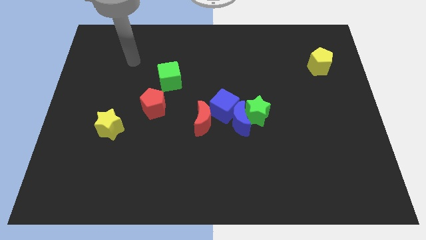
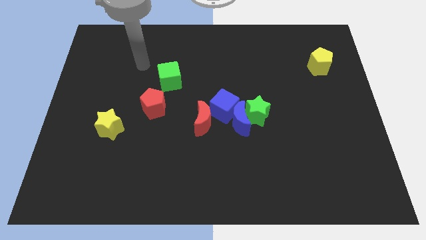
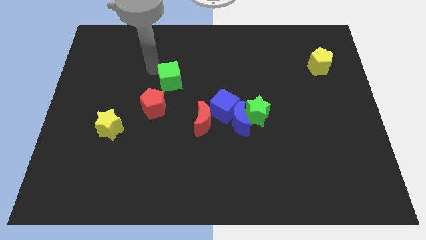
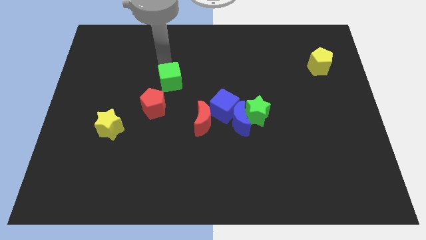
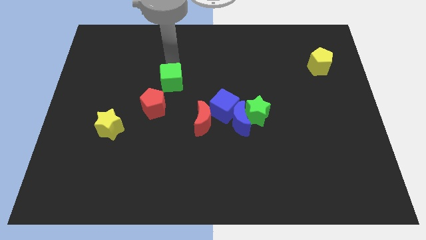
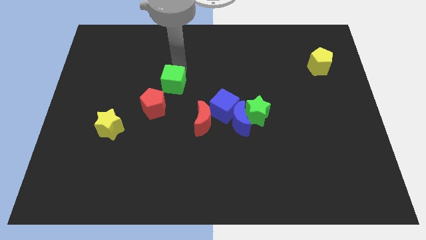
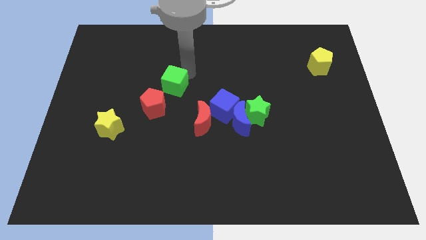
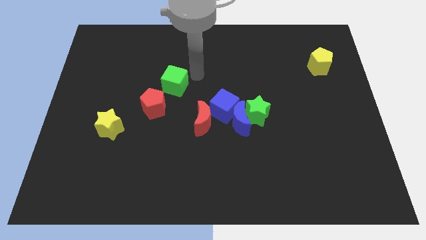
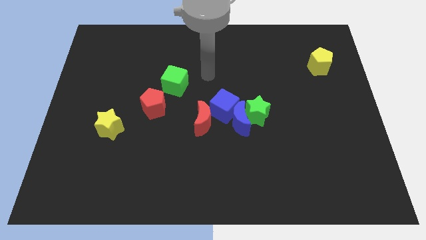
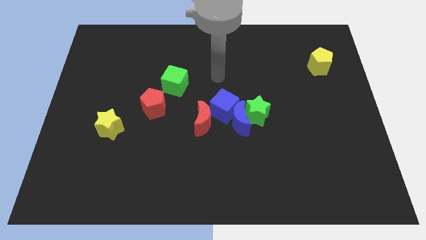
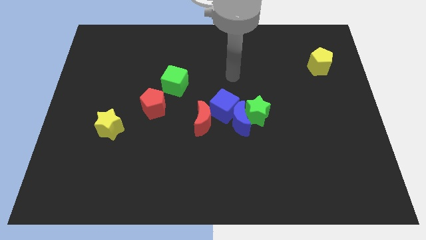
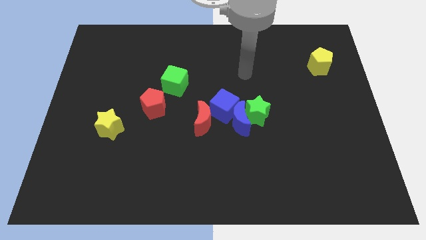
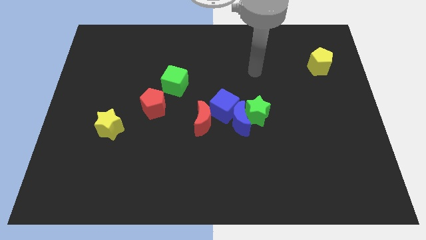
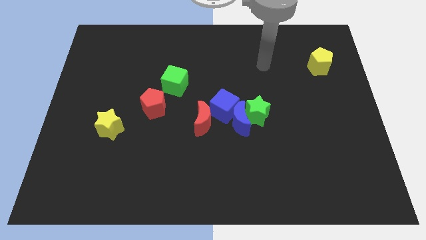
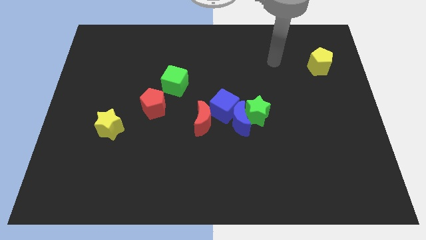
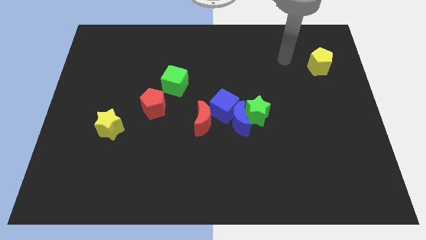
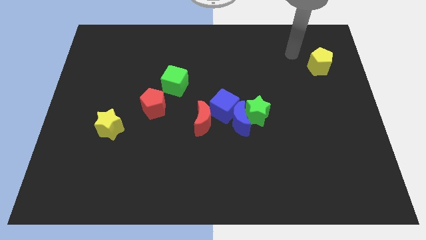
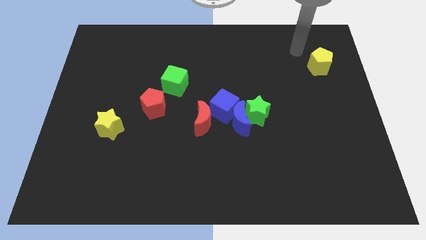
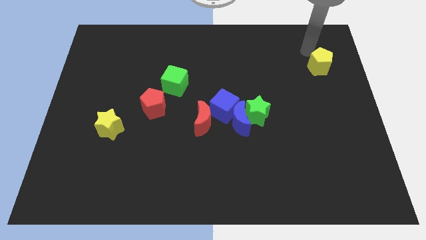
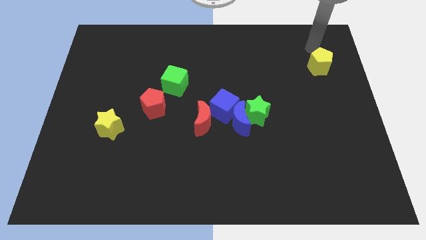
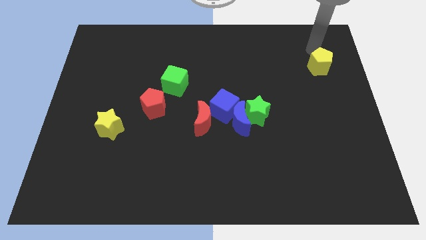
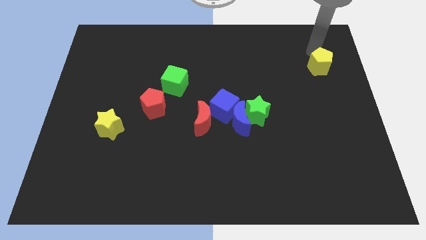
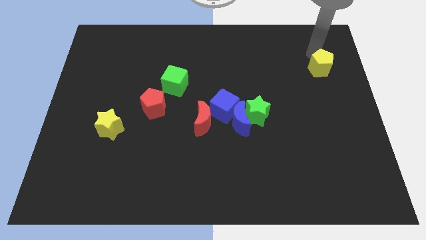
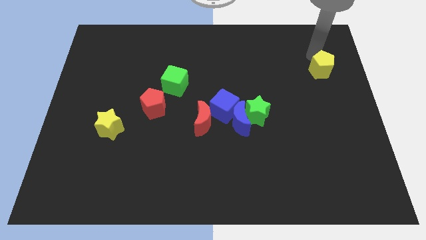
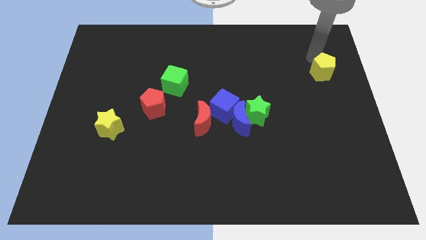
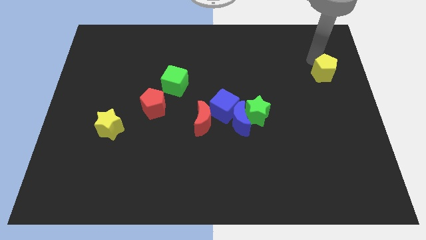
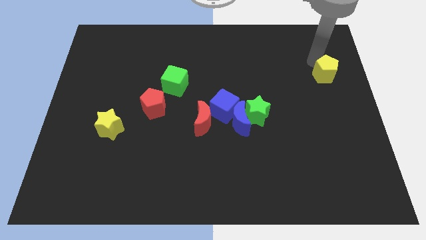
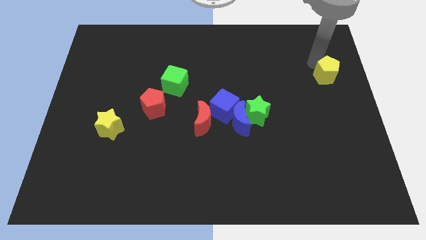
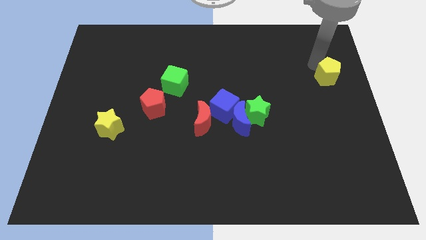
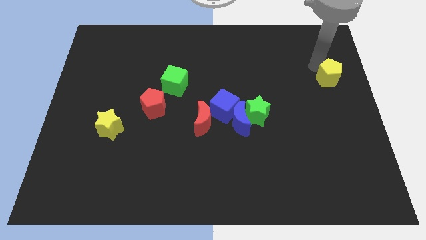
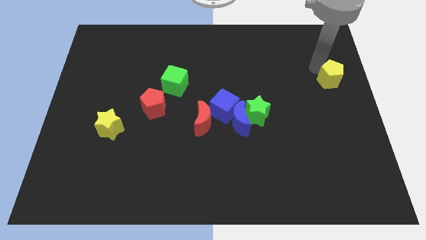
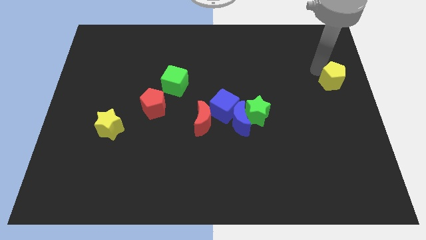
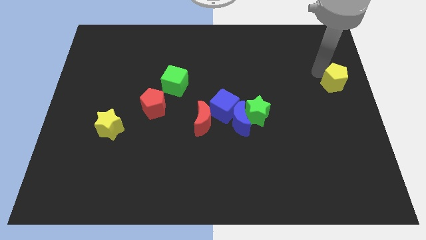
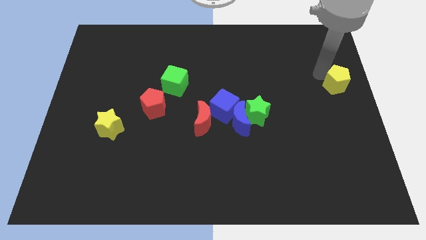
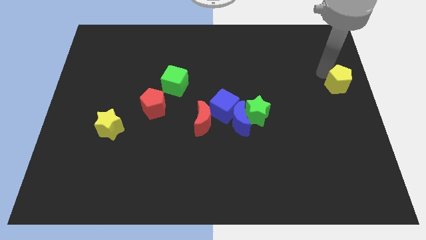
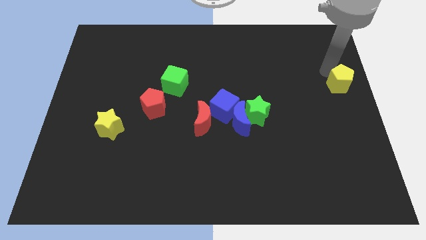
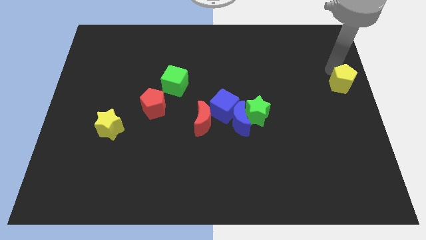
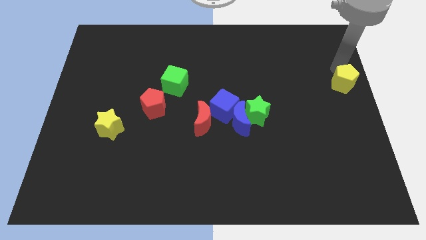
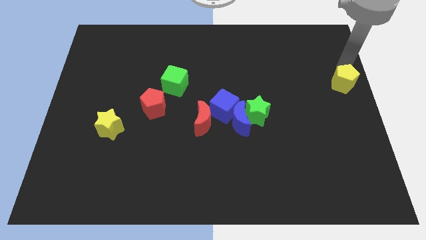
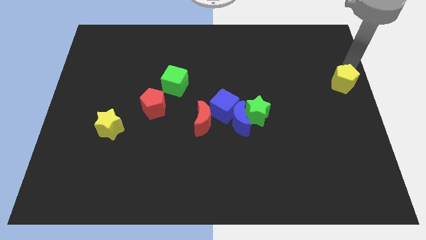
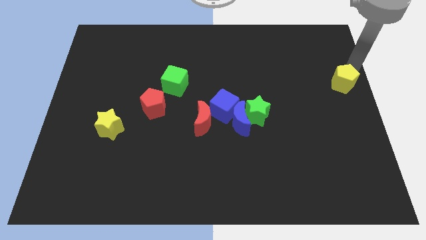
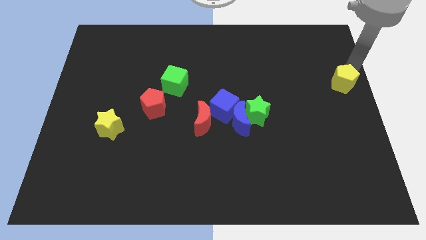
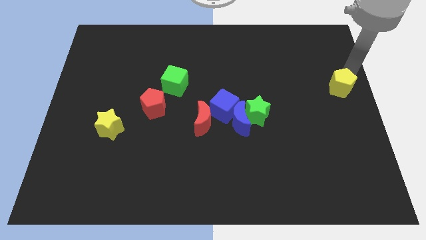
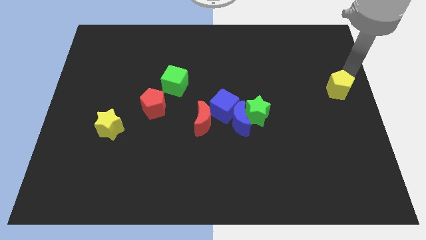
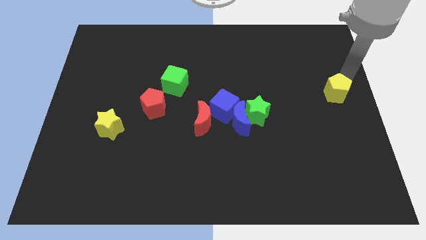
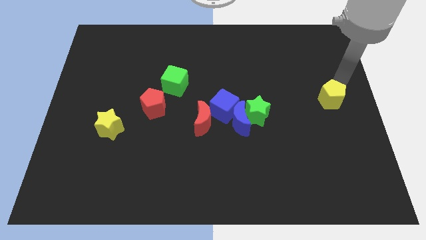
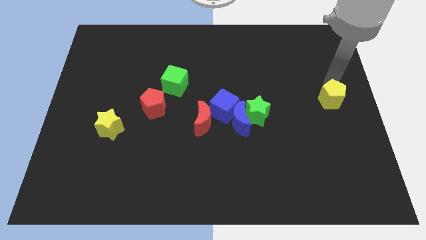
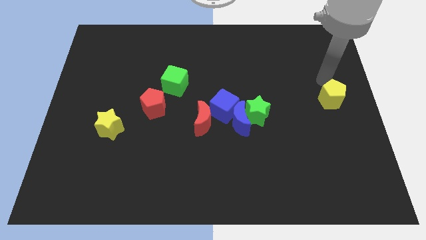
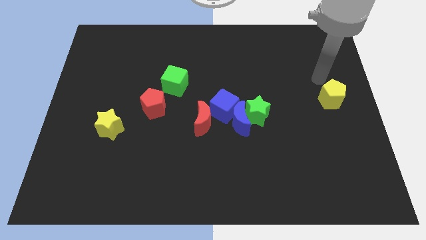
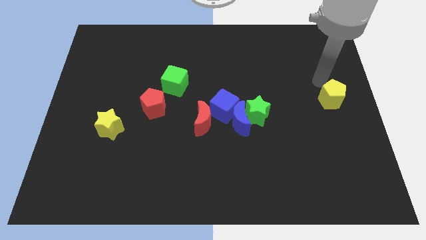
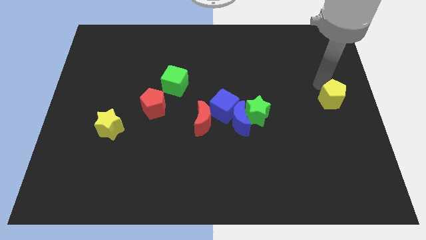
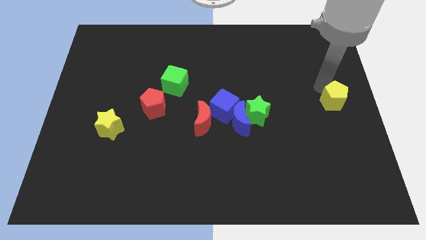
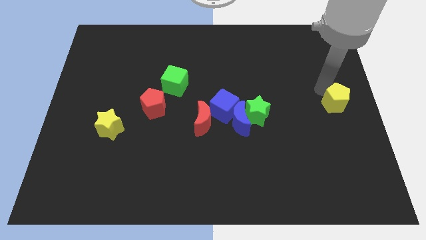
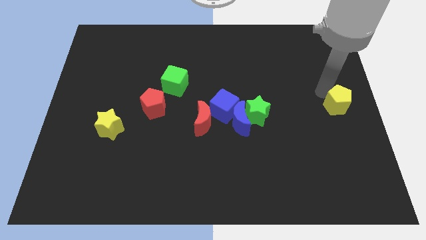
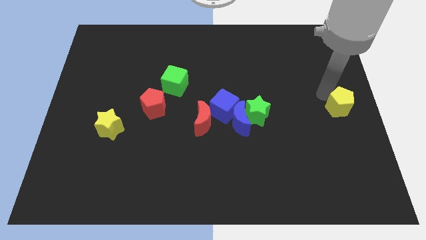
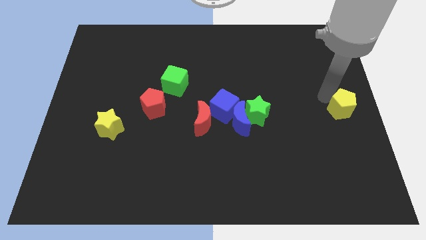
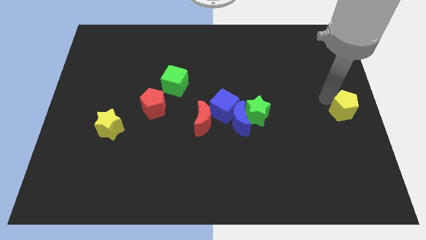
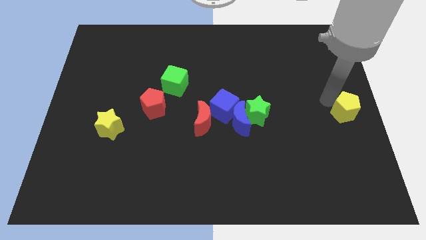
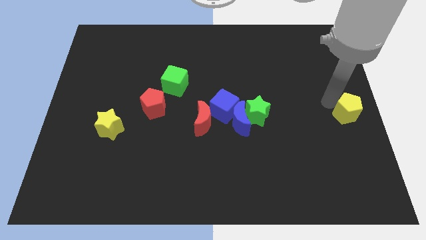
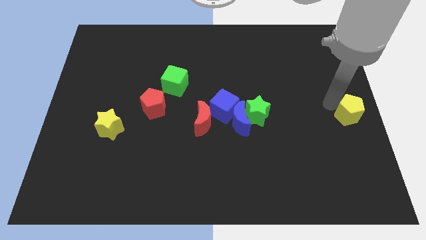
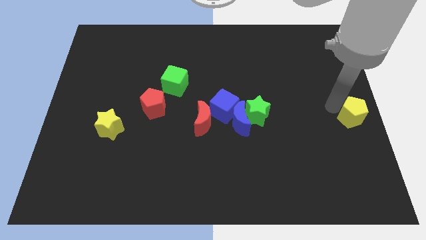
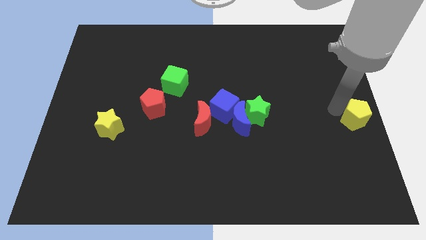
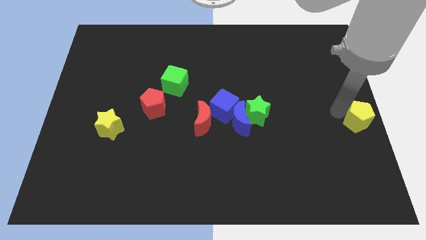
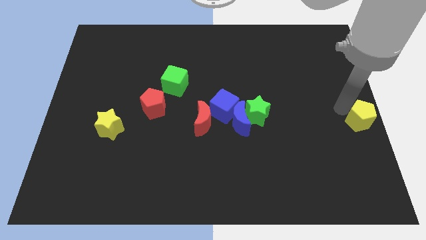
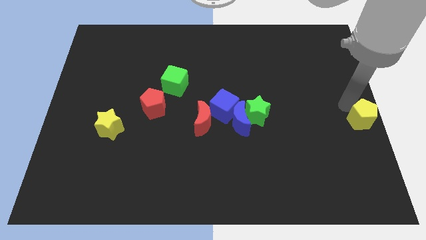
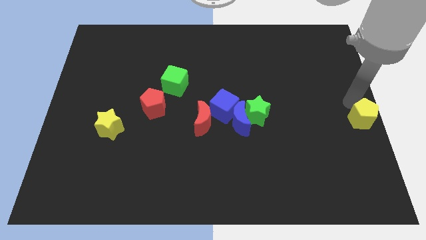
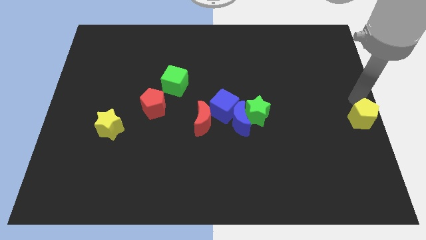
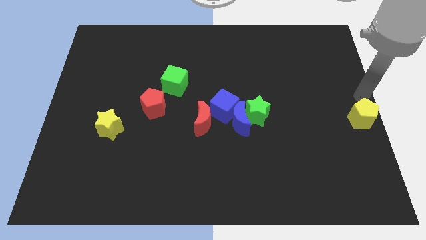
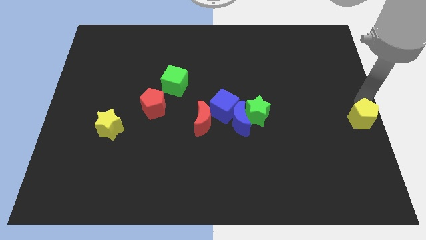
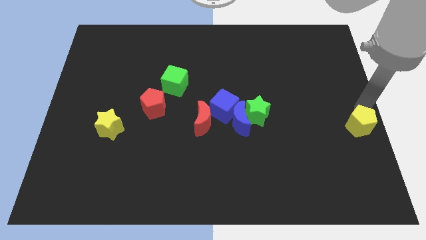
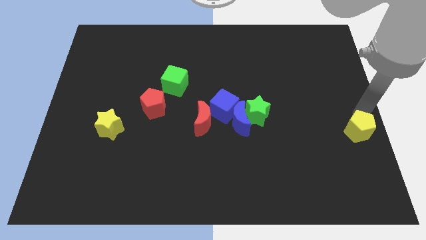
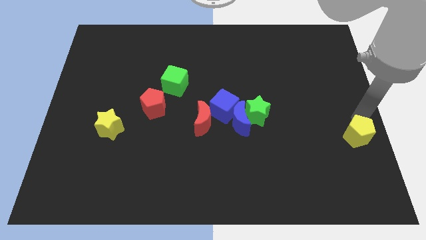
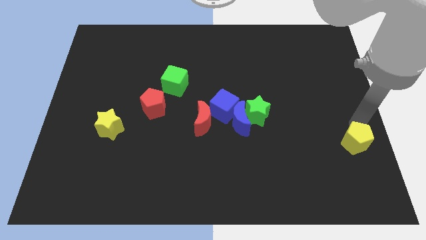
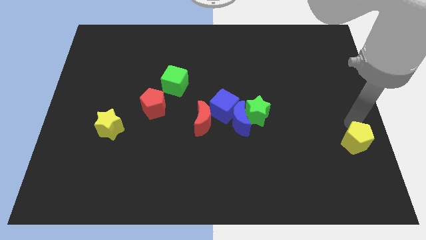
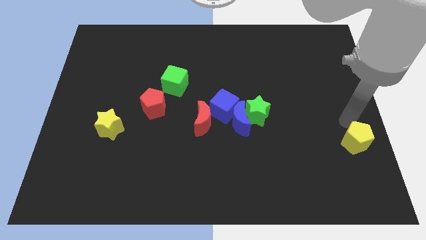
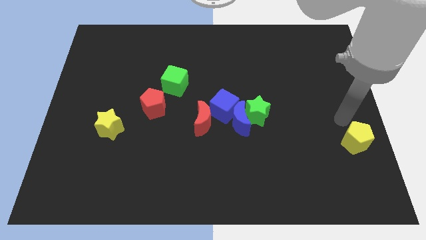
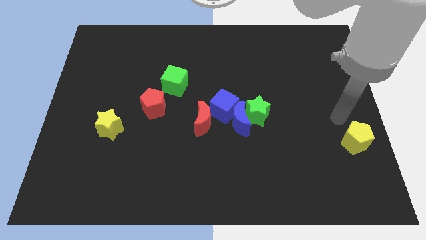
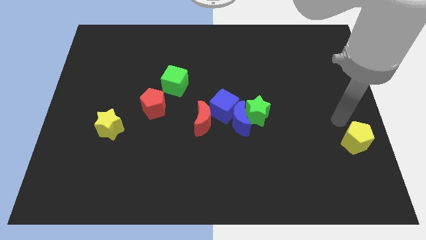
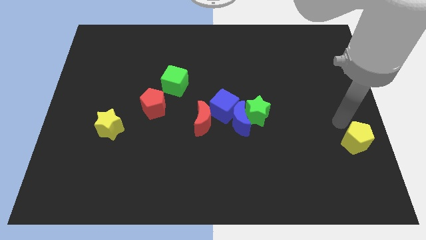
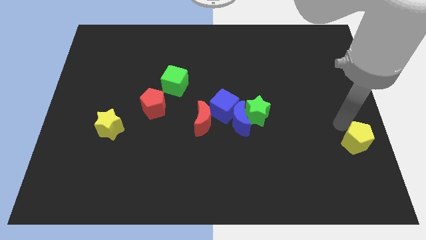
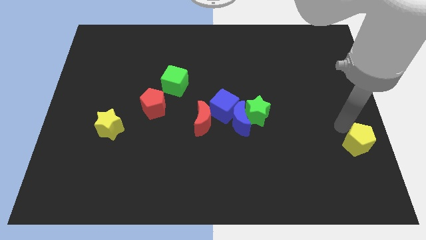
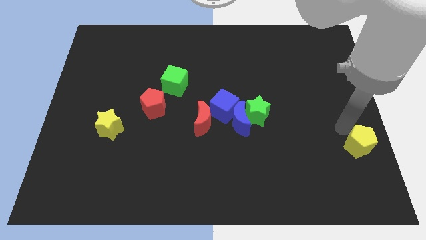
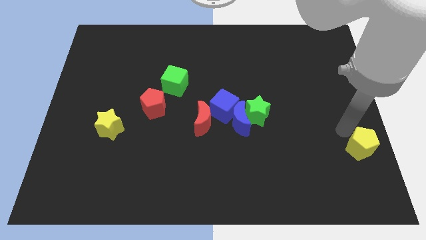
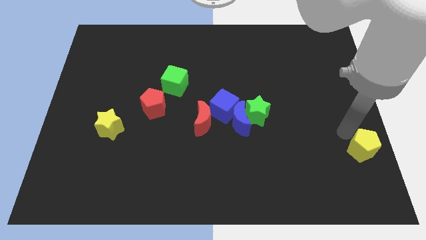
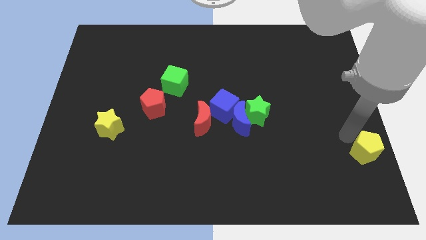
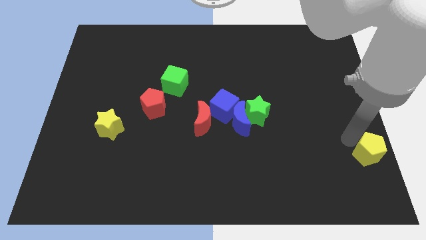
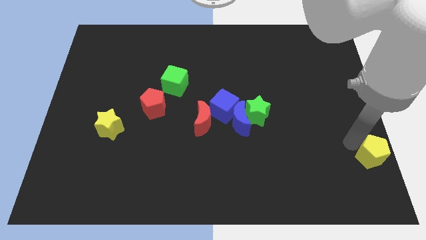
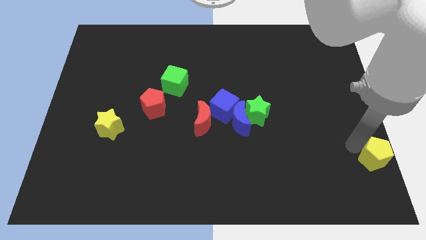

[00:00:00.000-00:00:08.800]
put the yellow pentagon to the lower right corner
